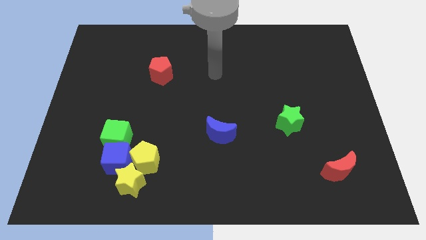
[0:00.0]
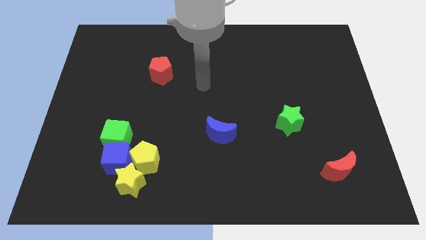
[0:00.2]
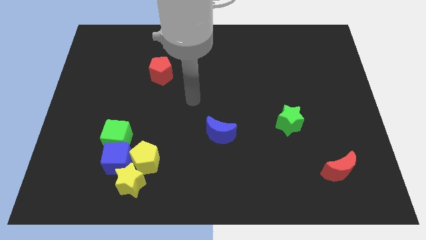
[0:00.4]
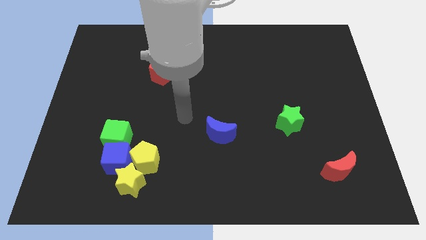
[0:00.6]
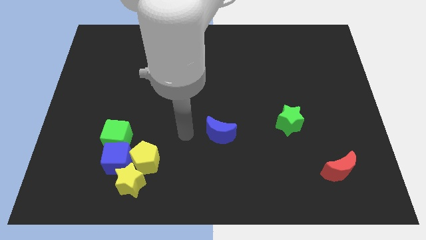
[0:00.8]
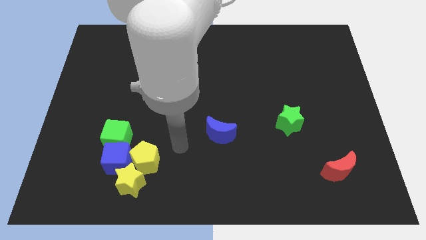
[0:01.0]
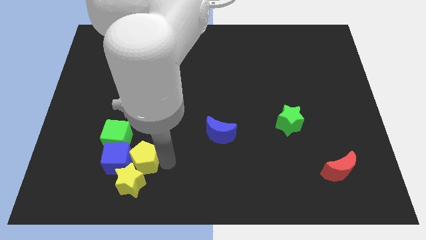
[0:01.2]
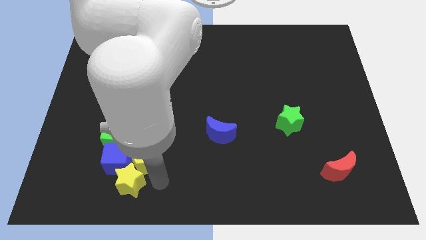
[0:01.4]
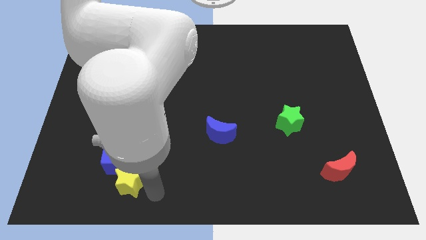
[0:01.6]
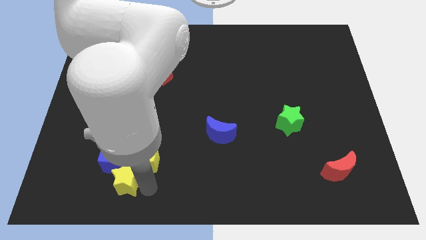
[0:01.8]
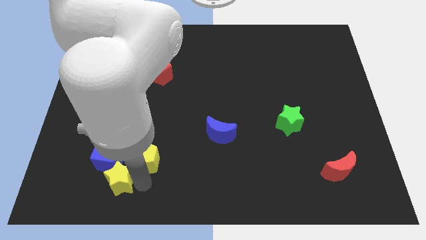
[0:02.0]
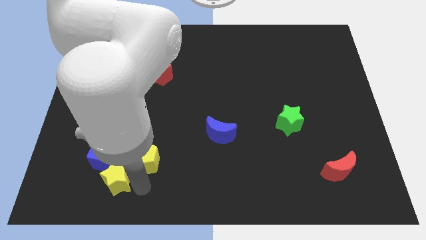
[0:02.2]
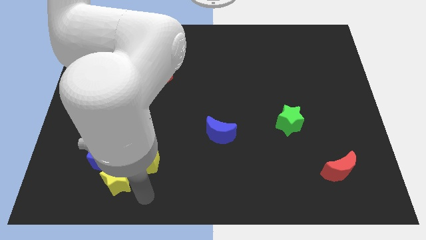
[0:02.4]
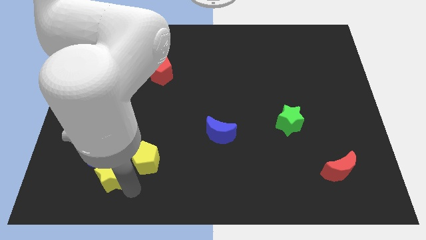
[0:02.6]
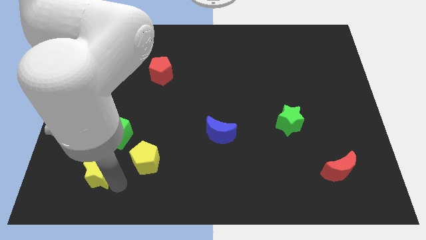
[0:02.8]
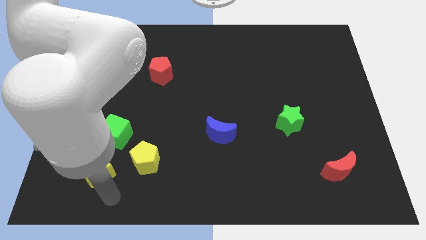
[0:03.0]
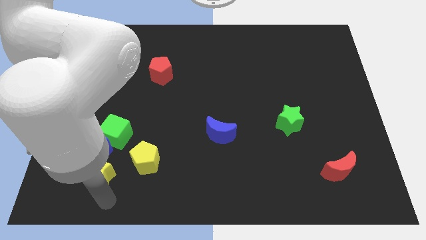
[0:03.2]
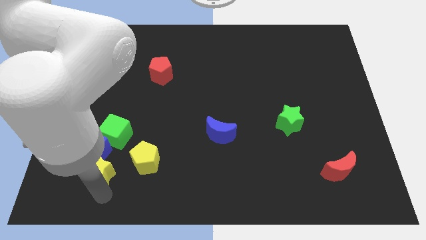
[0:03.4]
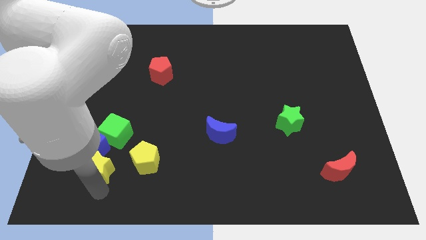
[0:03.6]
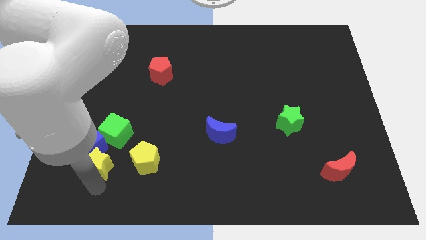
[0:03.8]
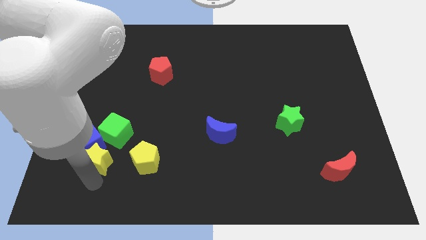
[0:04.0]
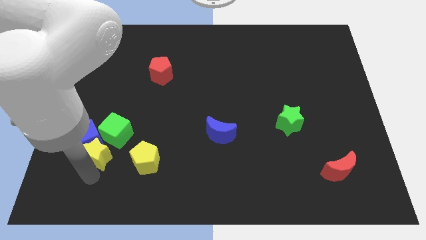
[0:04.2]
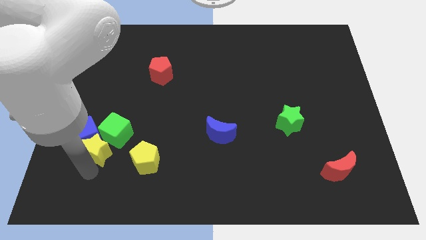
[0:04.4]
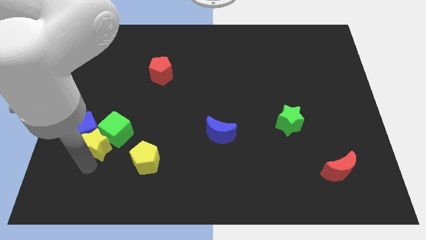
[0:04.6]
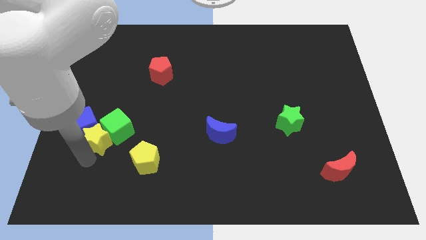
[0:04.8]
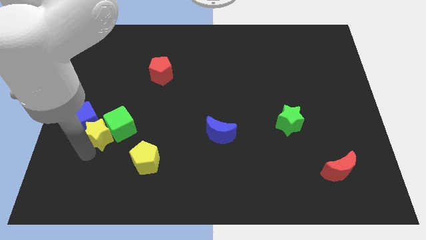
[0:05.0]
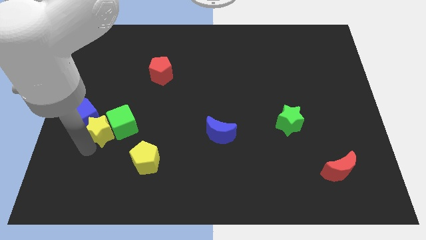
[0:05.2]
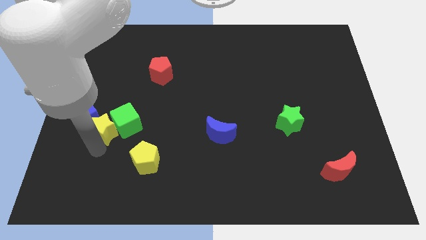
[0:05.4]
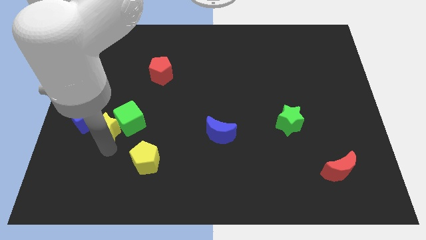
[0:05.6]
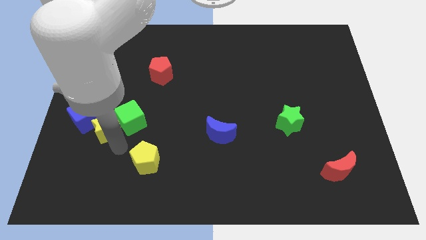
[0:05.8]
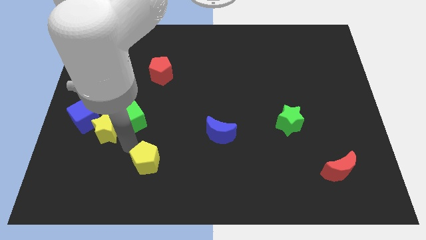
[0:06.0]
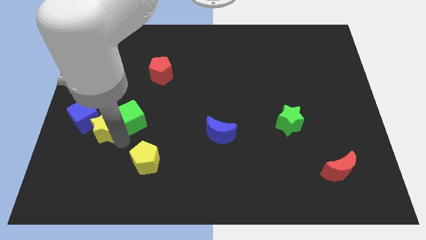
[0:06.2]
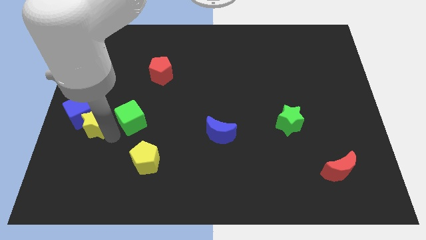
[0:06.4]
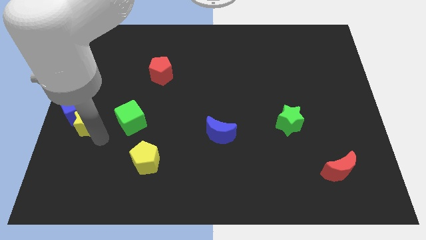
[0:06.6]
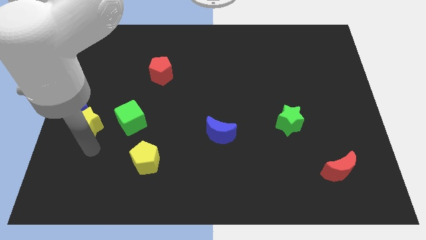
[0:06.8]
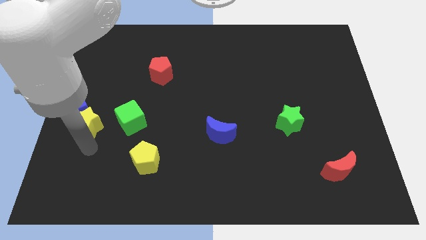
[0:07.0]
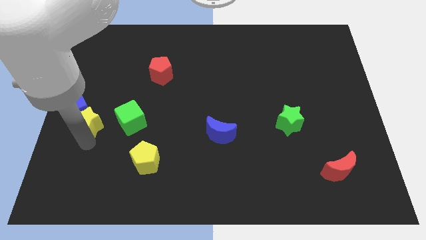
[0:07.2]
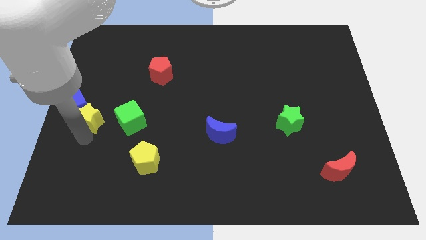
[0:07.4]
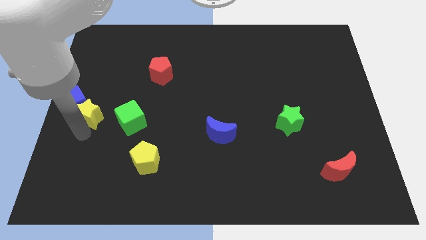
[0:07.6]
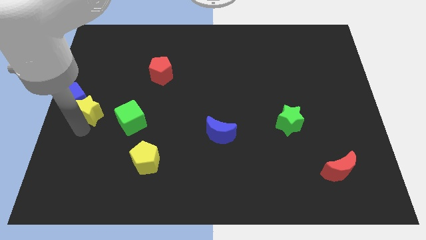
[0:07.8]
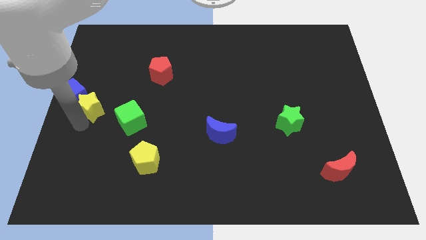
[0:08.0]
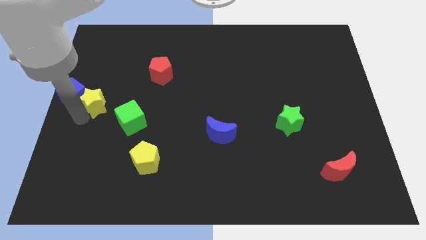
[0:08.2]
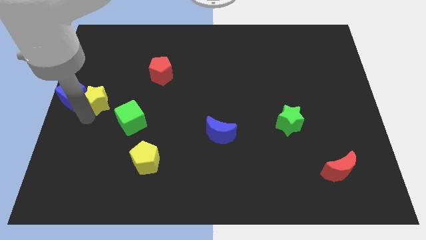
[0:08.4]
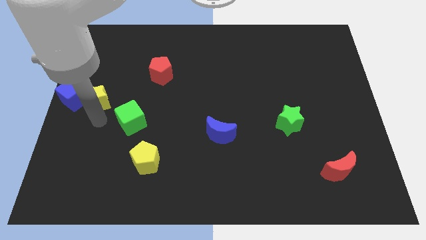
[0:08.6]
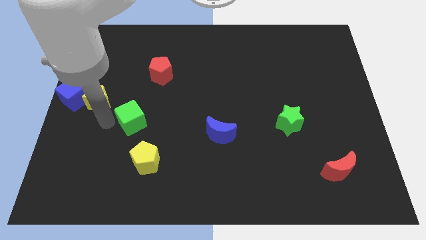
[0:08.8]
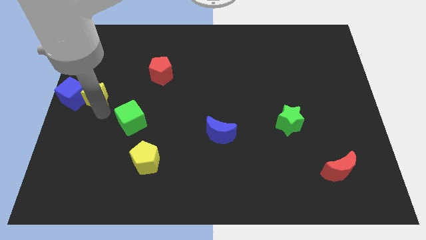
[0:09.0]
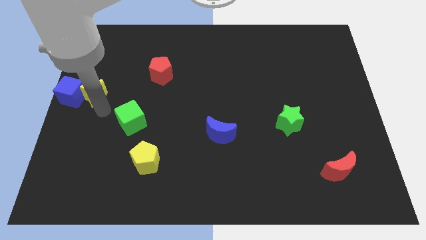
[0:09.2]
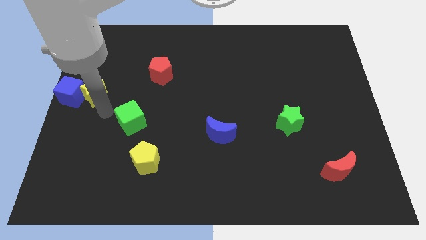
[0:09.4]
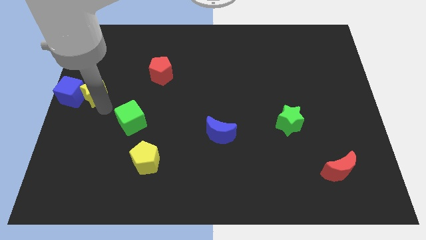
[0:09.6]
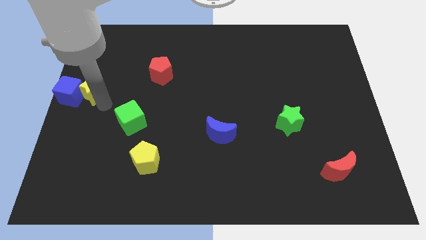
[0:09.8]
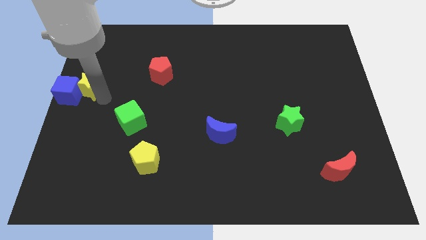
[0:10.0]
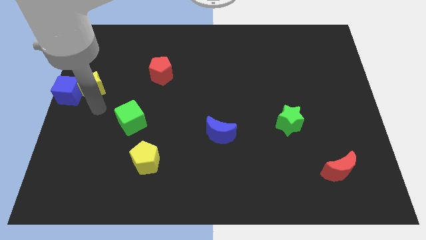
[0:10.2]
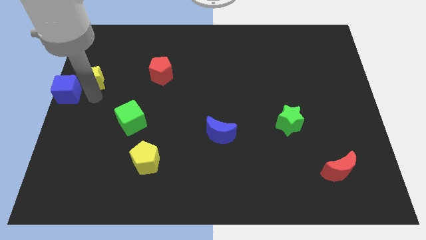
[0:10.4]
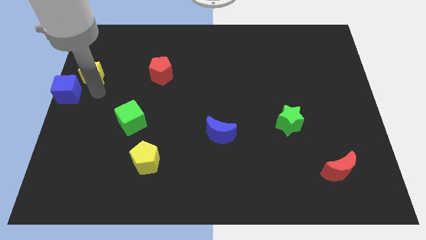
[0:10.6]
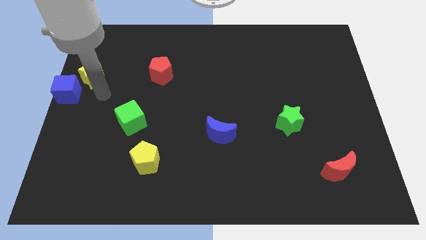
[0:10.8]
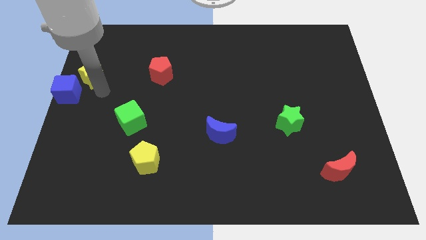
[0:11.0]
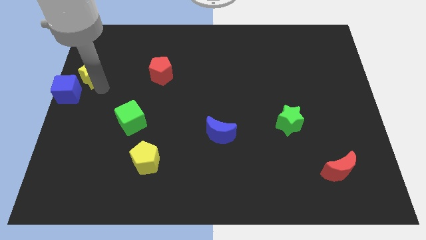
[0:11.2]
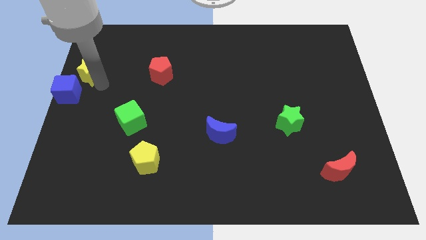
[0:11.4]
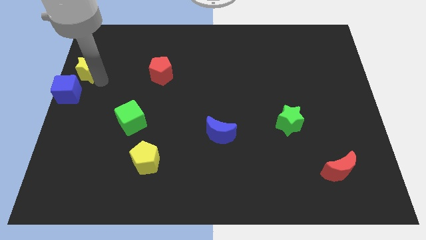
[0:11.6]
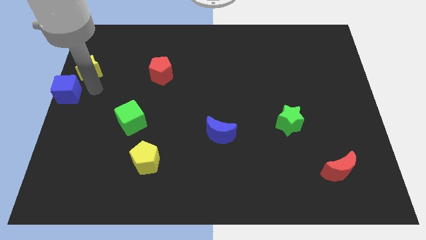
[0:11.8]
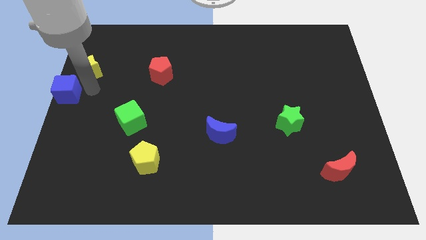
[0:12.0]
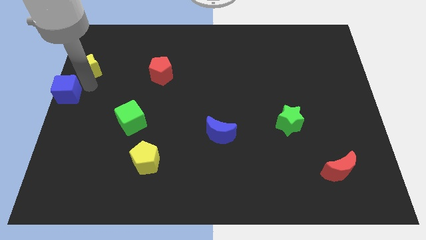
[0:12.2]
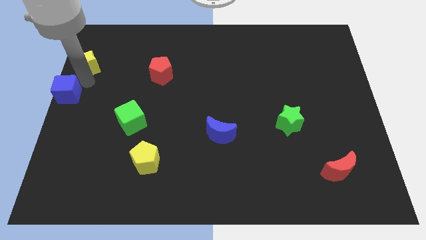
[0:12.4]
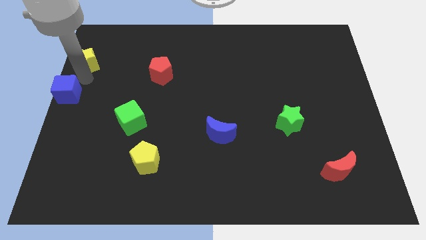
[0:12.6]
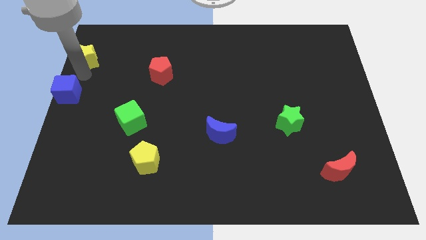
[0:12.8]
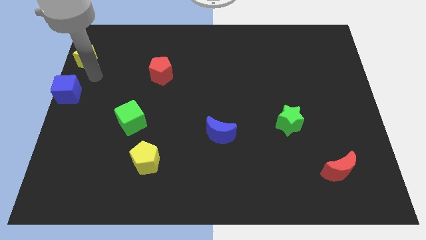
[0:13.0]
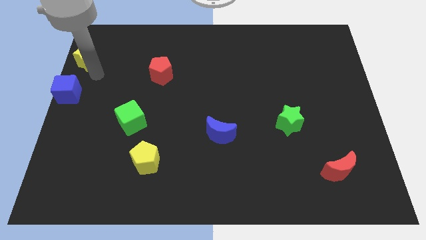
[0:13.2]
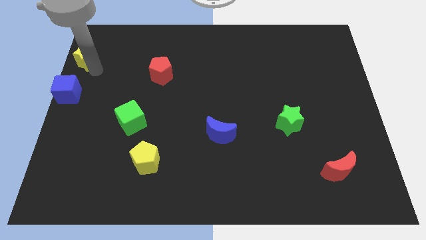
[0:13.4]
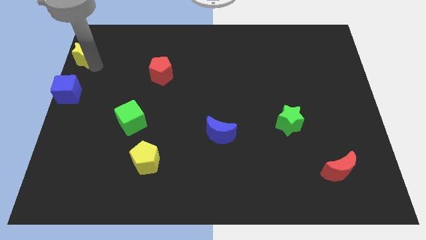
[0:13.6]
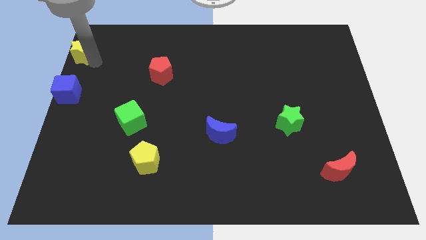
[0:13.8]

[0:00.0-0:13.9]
move the yellow star to the top left corner

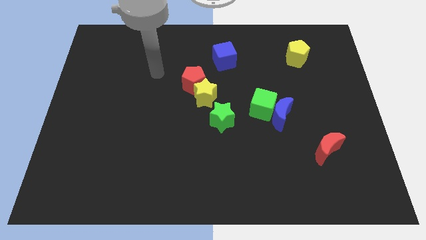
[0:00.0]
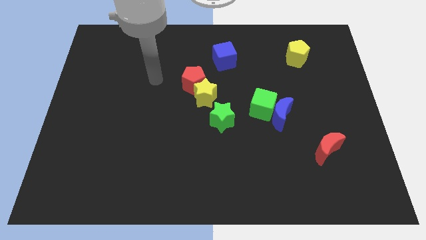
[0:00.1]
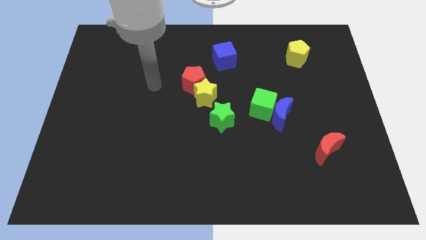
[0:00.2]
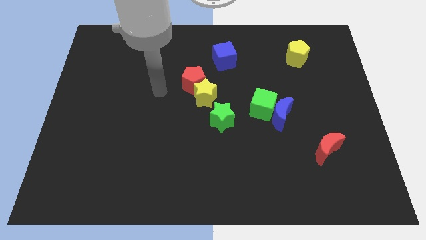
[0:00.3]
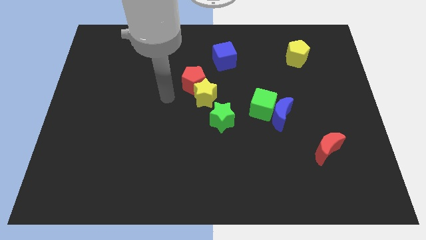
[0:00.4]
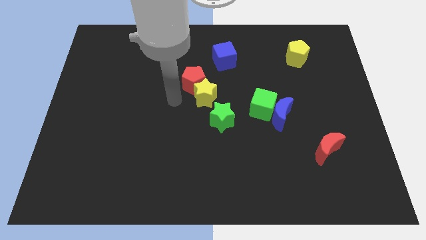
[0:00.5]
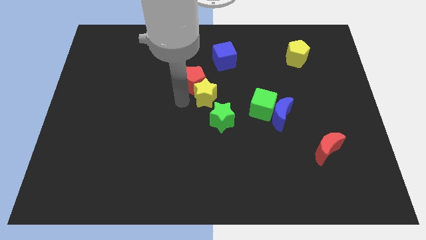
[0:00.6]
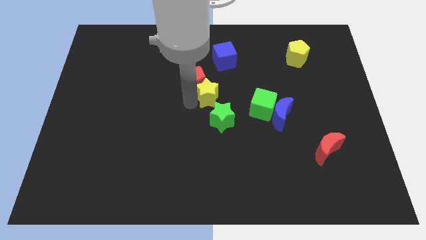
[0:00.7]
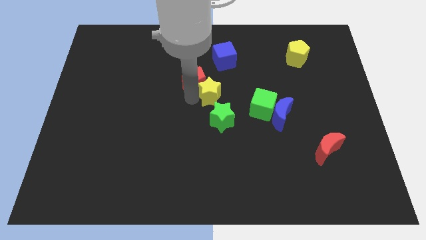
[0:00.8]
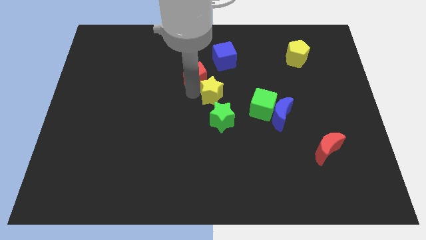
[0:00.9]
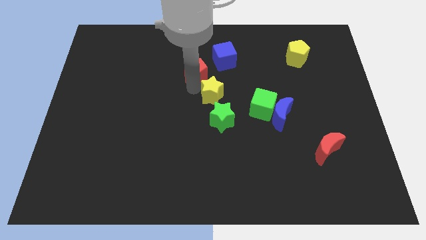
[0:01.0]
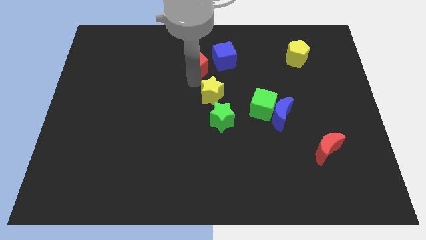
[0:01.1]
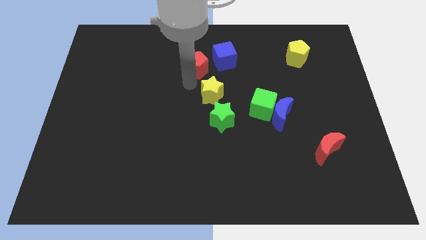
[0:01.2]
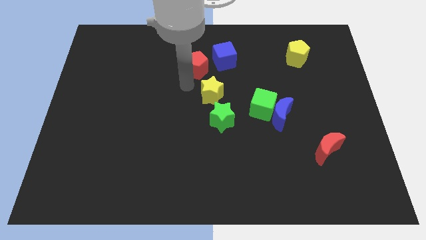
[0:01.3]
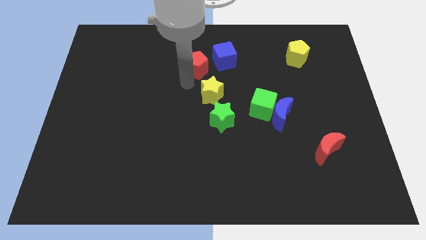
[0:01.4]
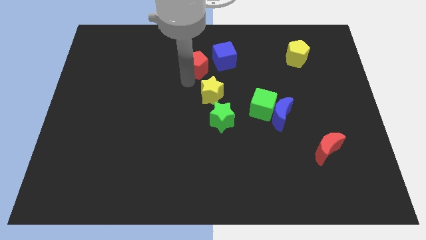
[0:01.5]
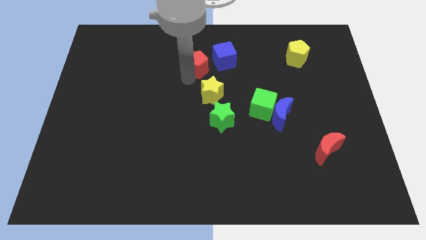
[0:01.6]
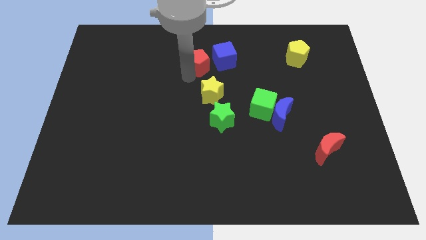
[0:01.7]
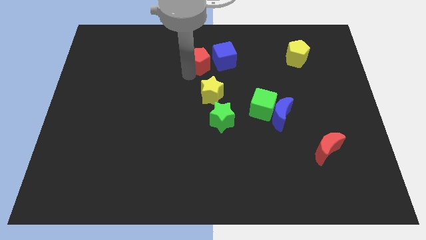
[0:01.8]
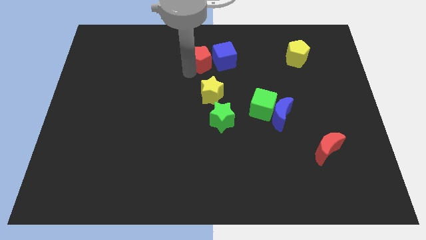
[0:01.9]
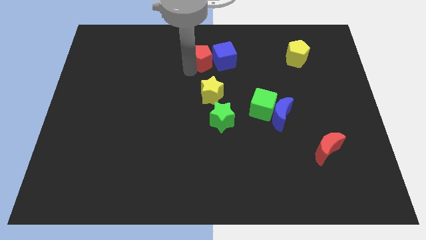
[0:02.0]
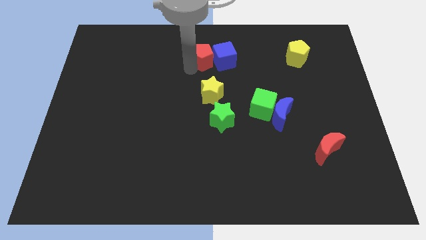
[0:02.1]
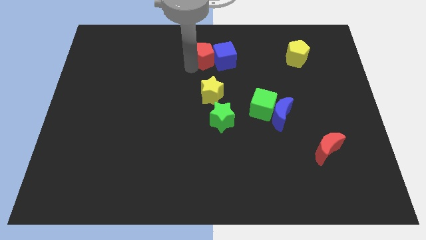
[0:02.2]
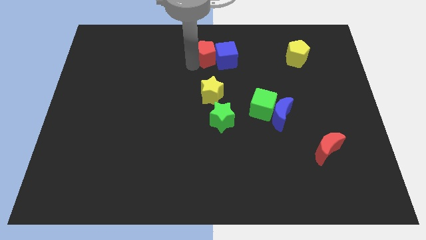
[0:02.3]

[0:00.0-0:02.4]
push the red pentagon to the towards your base
